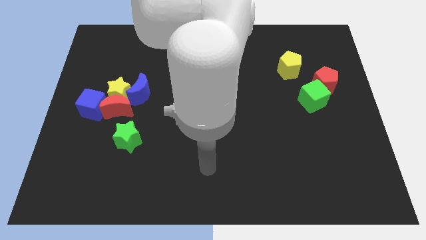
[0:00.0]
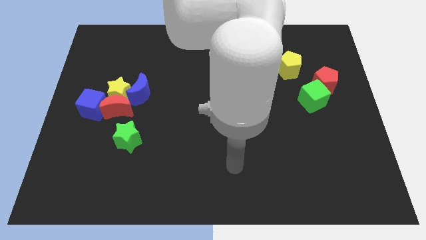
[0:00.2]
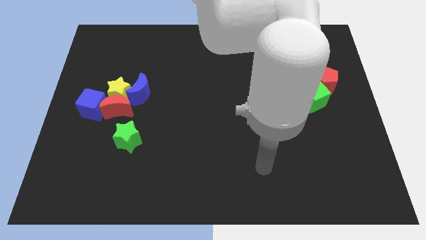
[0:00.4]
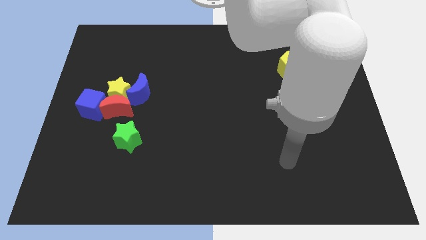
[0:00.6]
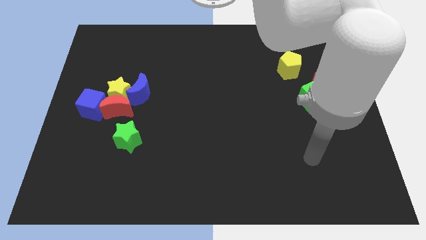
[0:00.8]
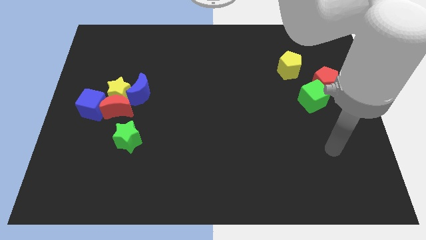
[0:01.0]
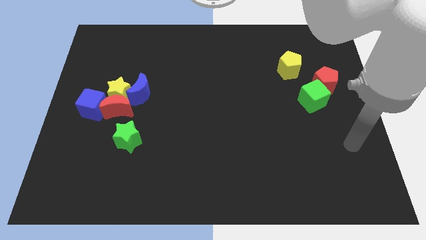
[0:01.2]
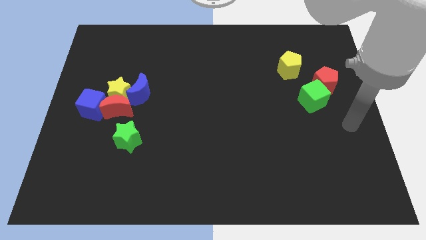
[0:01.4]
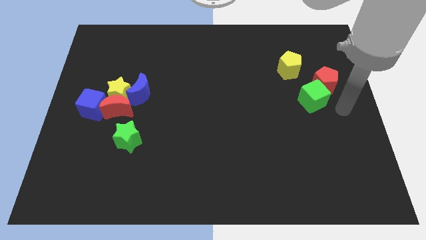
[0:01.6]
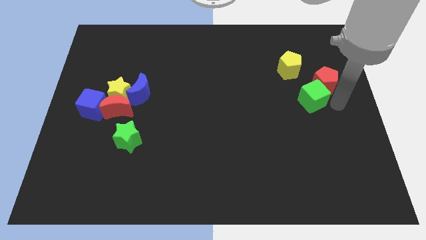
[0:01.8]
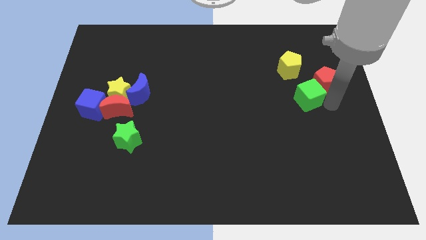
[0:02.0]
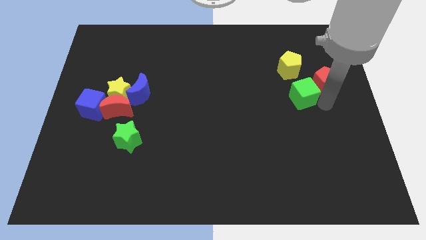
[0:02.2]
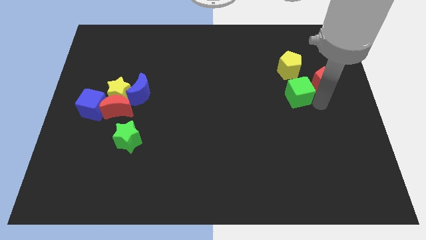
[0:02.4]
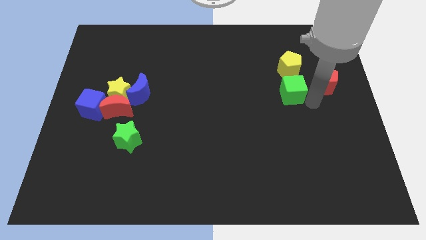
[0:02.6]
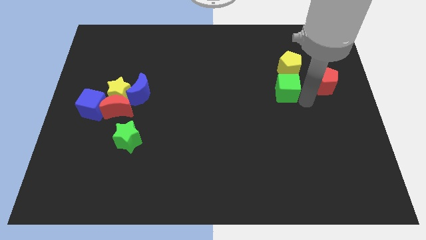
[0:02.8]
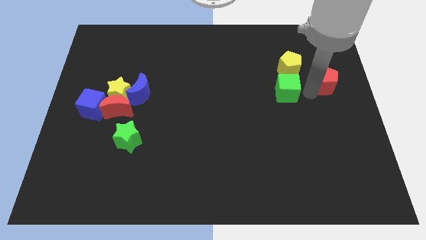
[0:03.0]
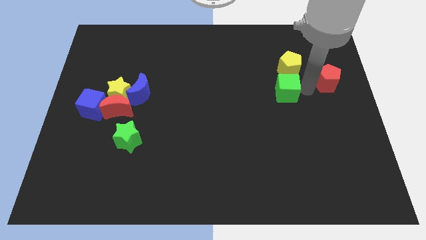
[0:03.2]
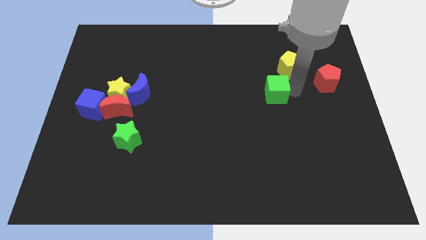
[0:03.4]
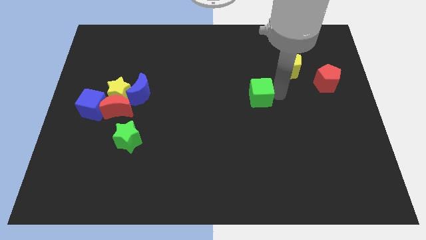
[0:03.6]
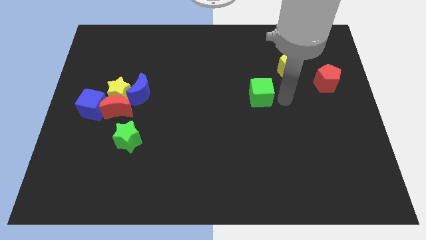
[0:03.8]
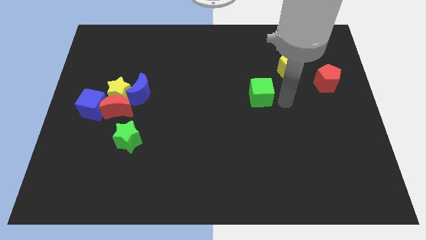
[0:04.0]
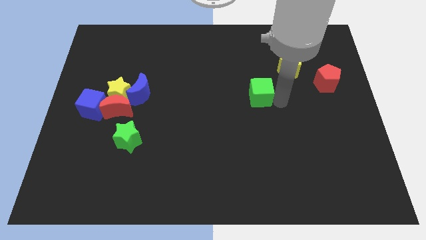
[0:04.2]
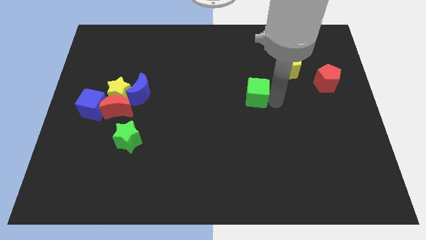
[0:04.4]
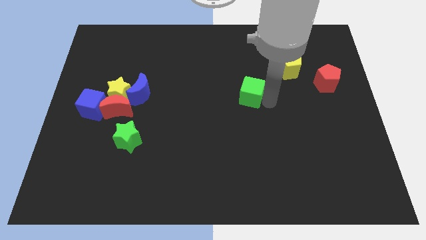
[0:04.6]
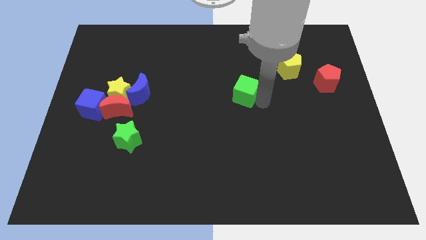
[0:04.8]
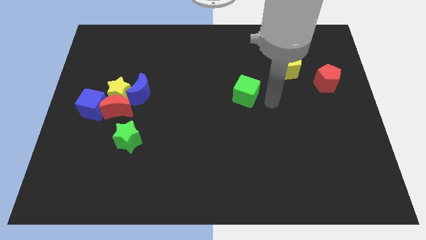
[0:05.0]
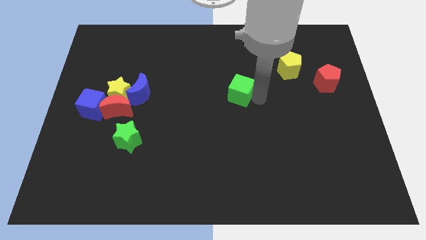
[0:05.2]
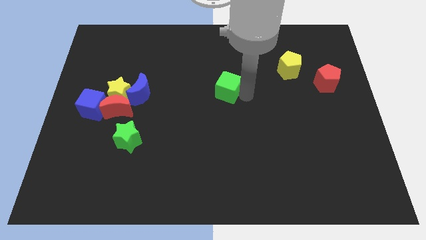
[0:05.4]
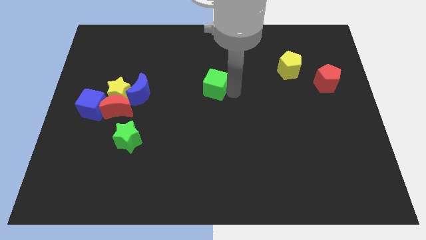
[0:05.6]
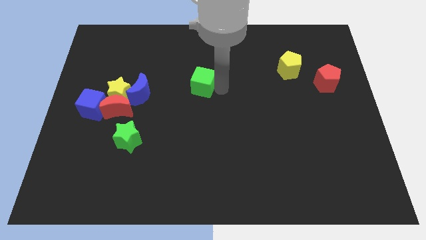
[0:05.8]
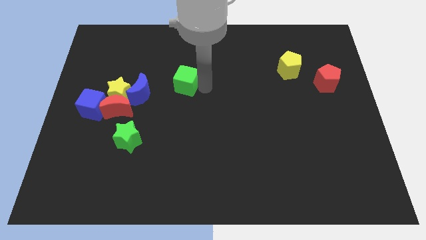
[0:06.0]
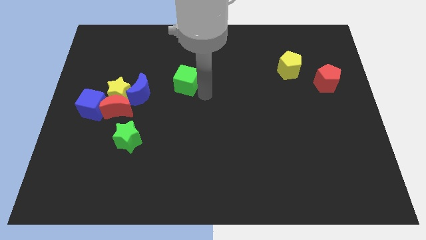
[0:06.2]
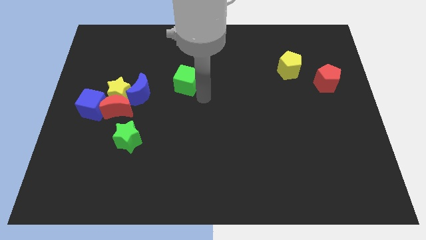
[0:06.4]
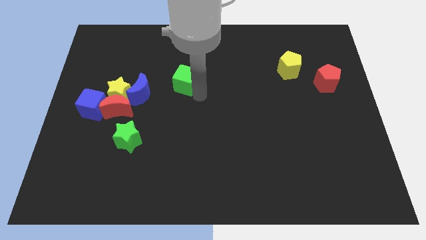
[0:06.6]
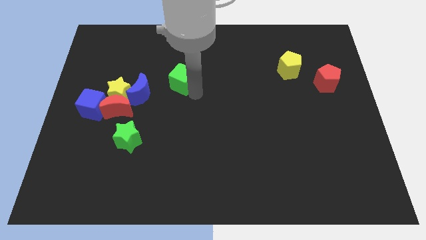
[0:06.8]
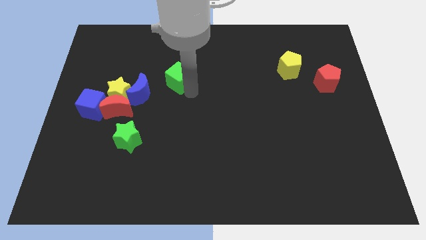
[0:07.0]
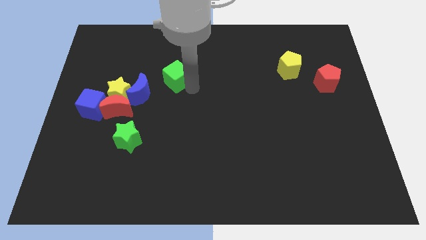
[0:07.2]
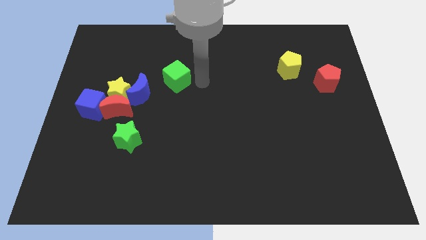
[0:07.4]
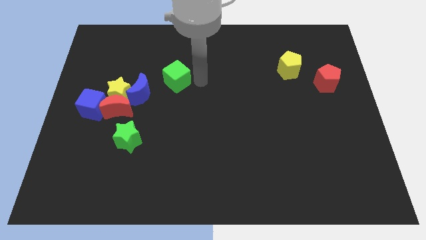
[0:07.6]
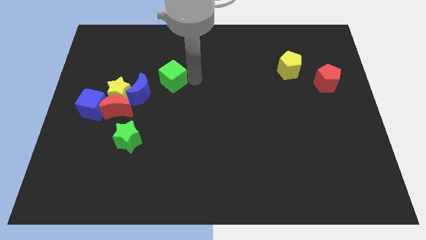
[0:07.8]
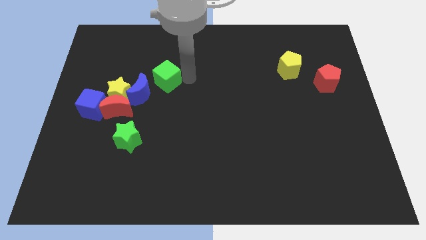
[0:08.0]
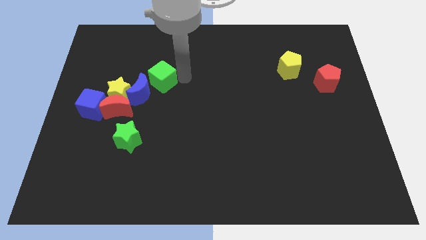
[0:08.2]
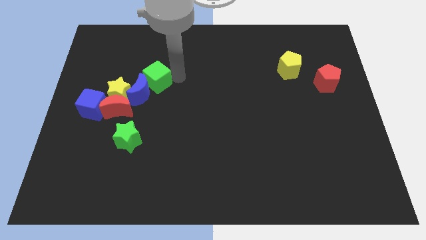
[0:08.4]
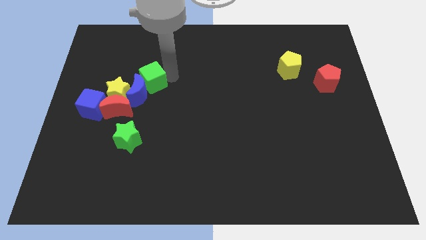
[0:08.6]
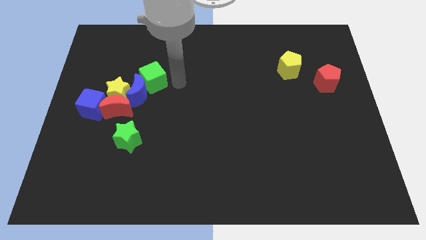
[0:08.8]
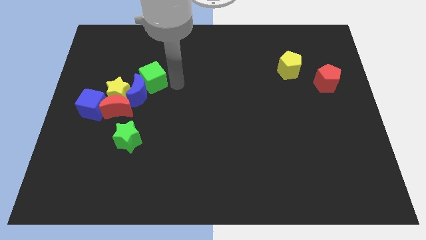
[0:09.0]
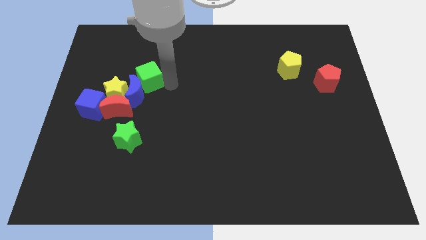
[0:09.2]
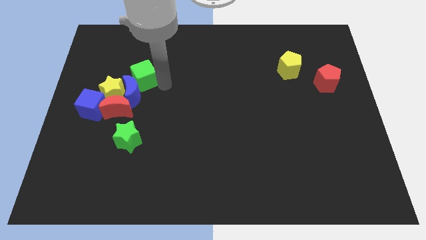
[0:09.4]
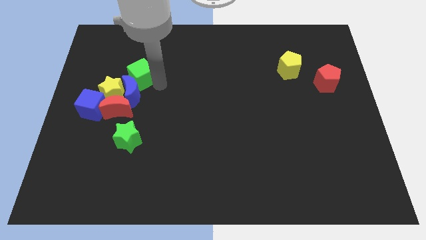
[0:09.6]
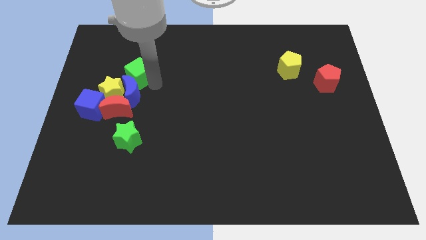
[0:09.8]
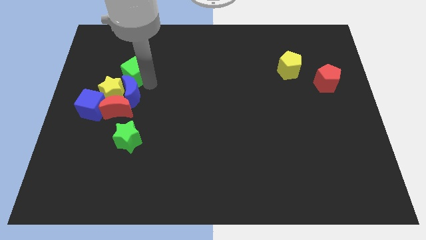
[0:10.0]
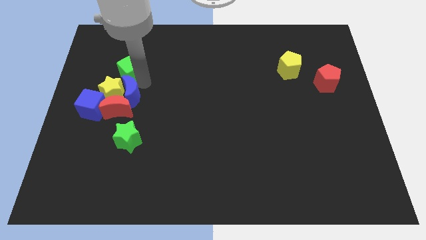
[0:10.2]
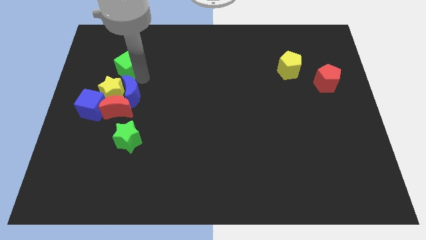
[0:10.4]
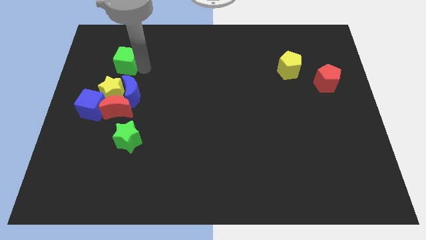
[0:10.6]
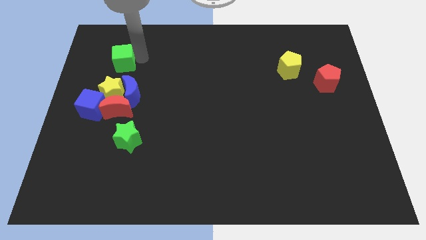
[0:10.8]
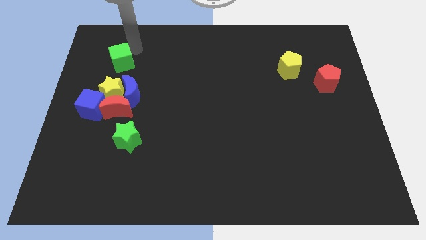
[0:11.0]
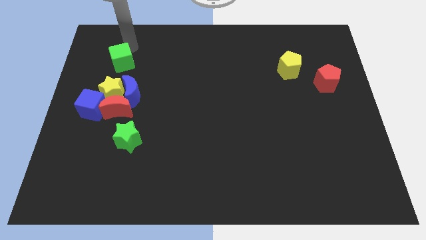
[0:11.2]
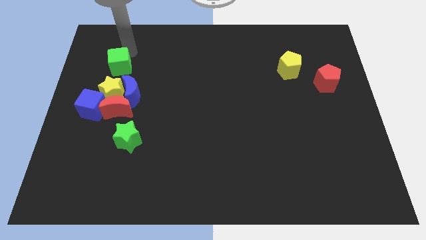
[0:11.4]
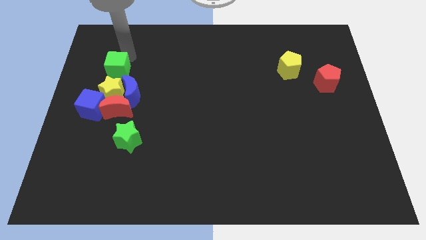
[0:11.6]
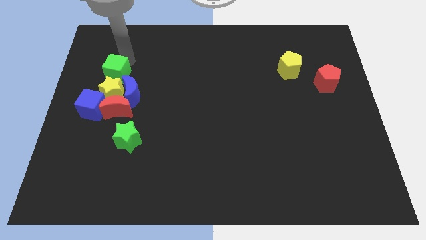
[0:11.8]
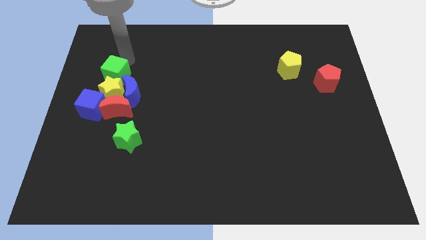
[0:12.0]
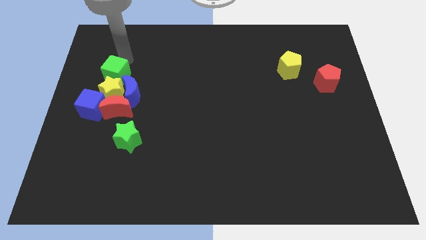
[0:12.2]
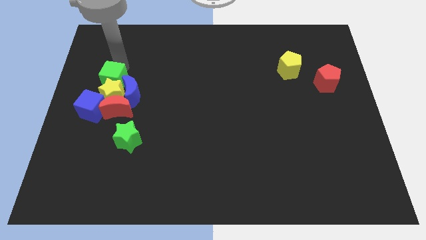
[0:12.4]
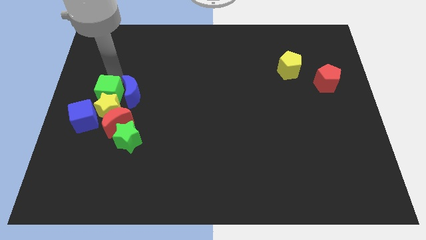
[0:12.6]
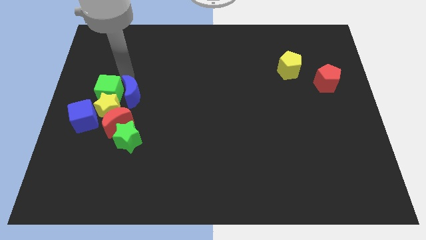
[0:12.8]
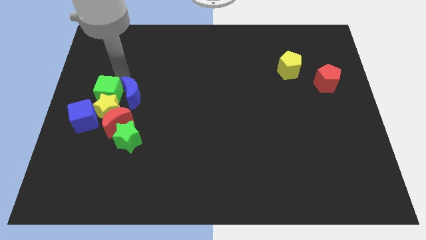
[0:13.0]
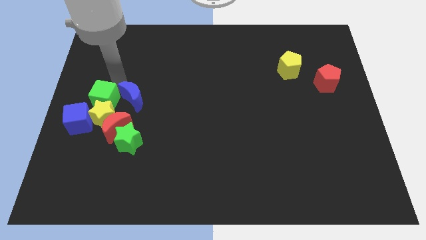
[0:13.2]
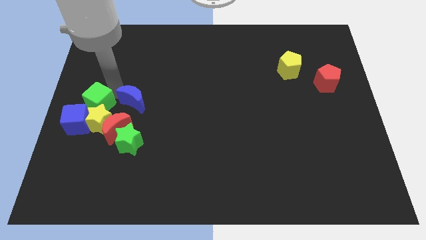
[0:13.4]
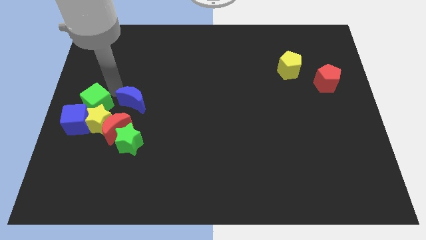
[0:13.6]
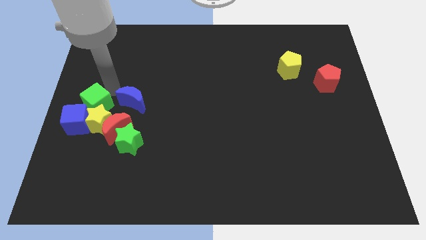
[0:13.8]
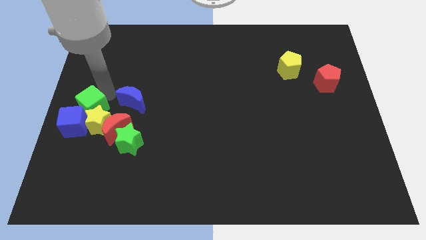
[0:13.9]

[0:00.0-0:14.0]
push the green cube towards the blue cube
